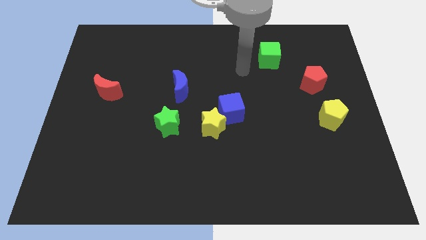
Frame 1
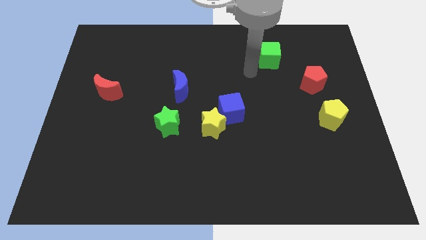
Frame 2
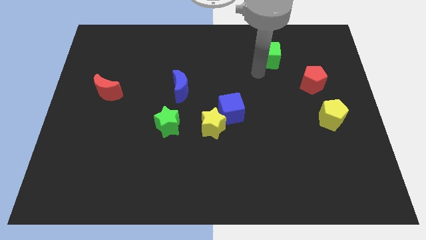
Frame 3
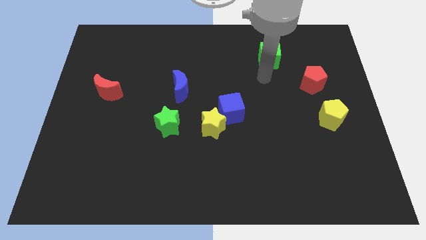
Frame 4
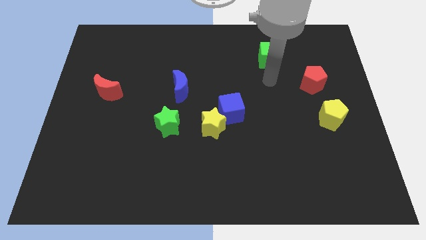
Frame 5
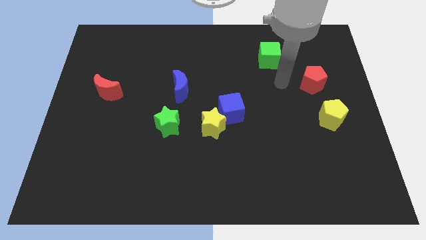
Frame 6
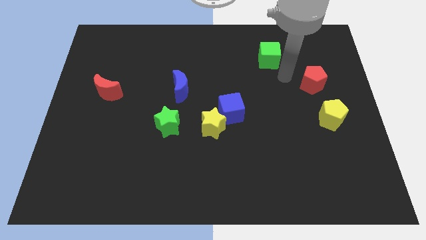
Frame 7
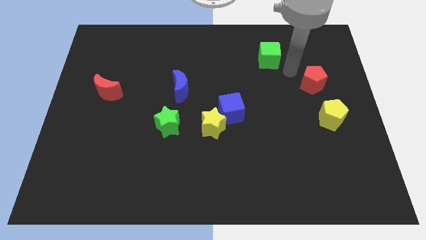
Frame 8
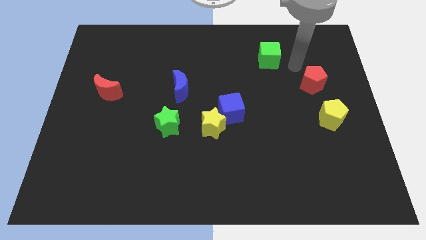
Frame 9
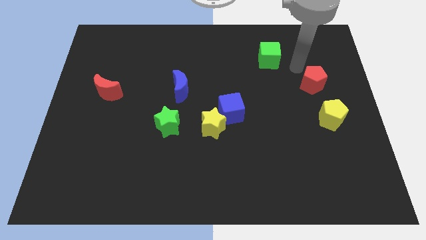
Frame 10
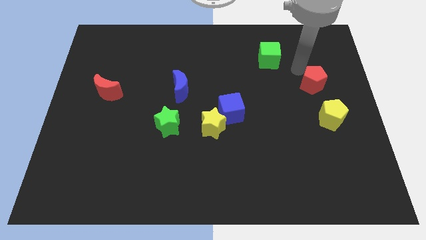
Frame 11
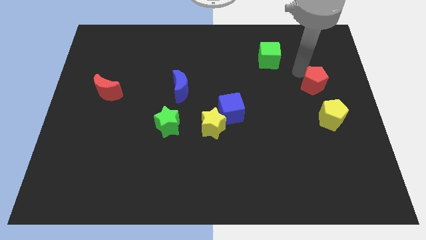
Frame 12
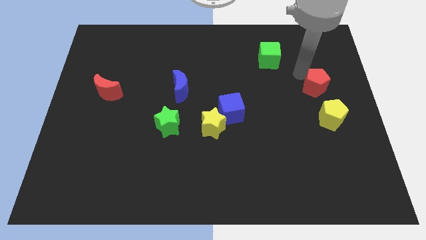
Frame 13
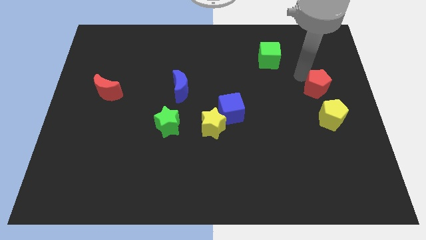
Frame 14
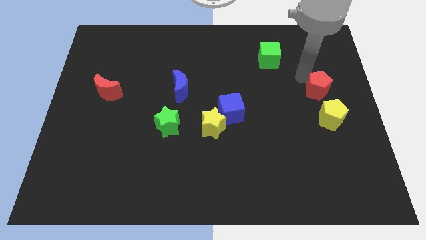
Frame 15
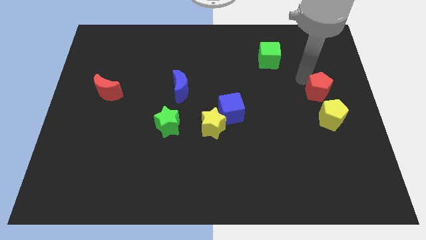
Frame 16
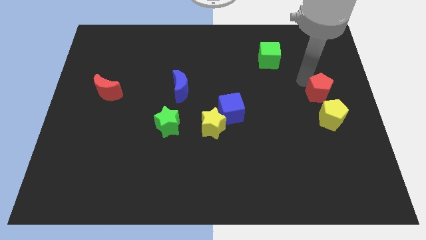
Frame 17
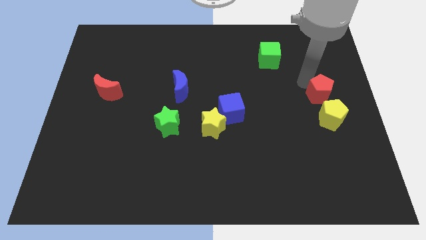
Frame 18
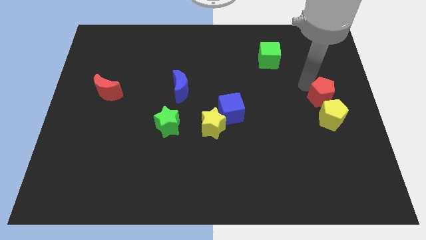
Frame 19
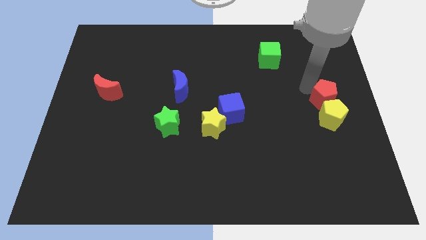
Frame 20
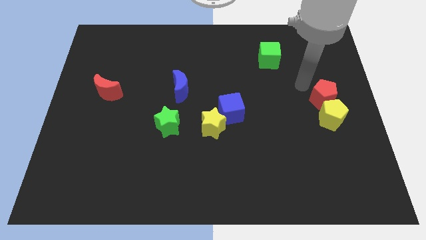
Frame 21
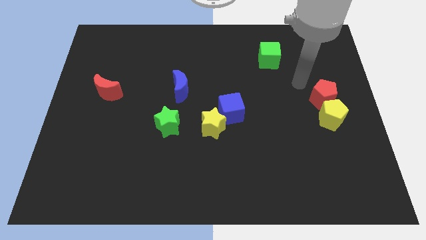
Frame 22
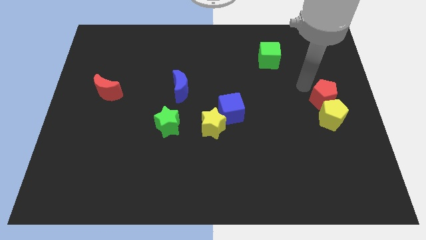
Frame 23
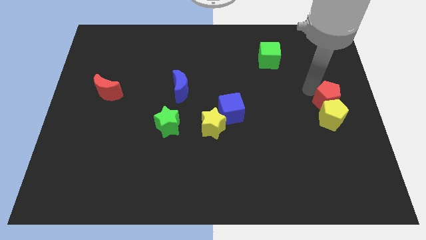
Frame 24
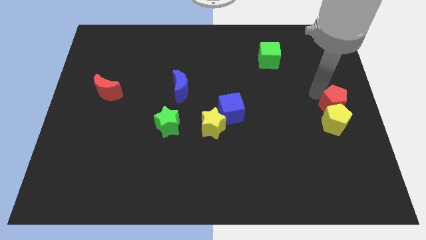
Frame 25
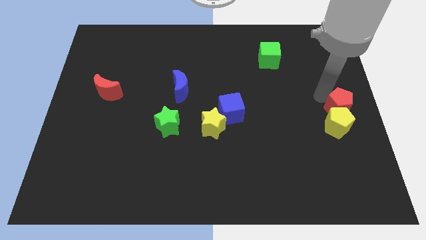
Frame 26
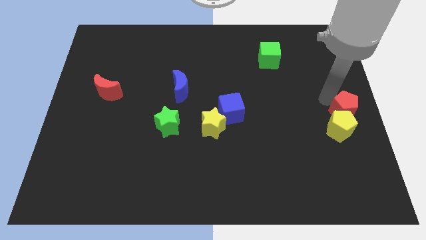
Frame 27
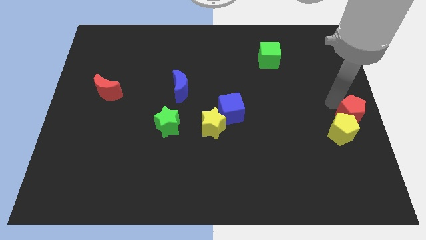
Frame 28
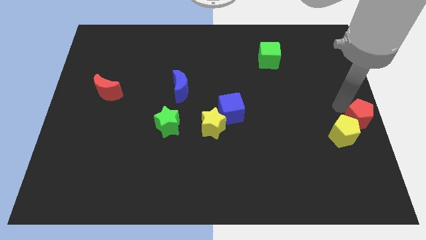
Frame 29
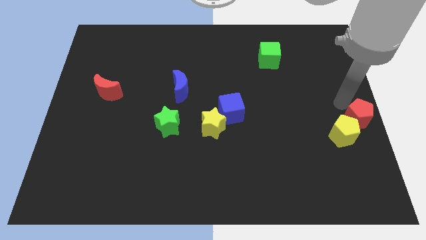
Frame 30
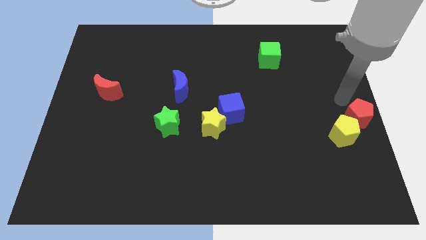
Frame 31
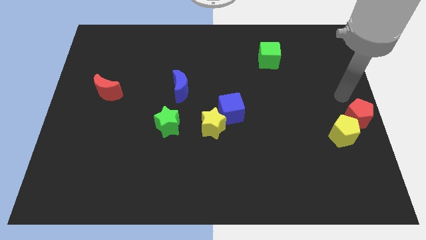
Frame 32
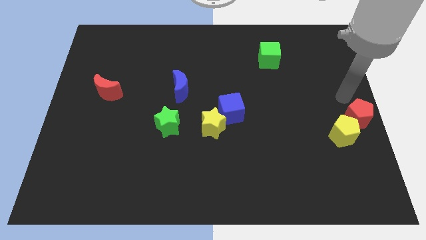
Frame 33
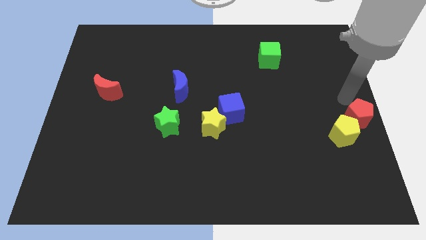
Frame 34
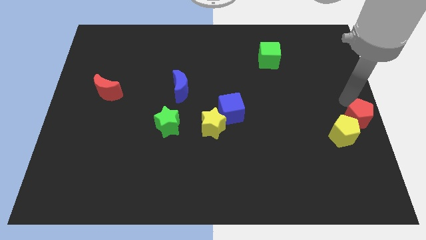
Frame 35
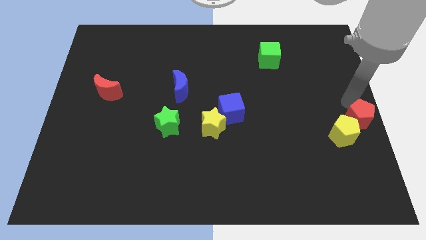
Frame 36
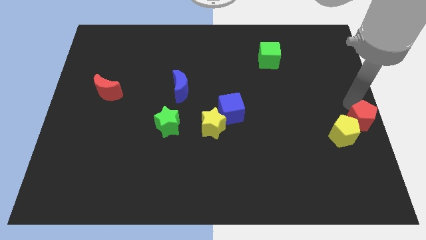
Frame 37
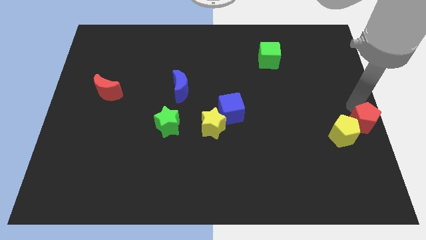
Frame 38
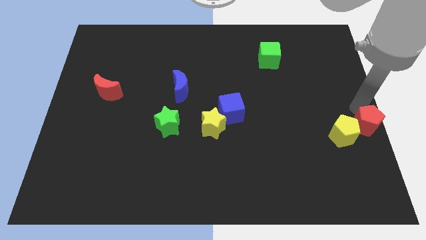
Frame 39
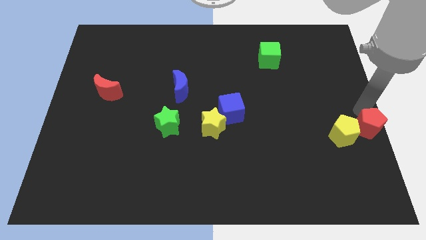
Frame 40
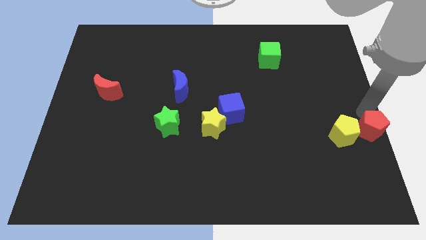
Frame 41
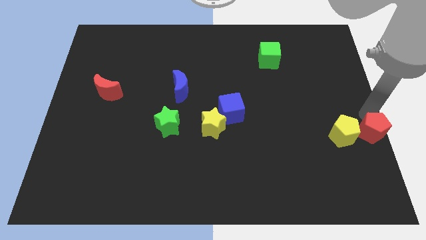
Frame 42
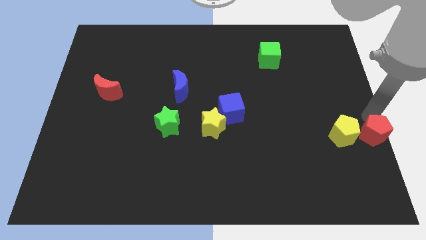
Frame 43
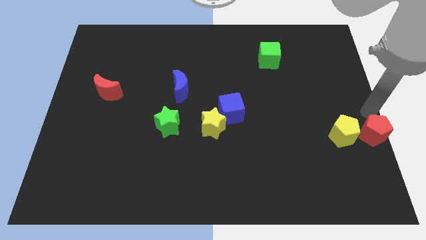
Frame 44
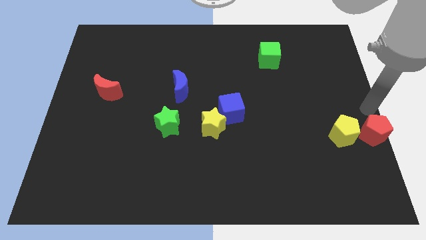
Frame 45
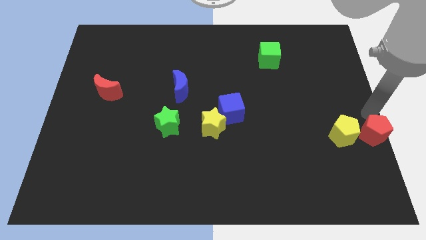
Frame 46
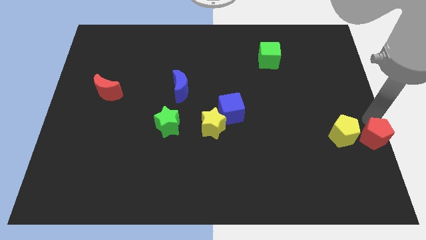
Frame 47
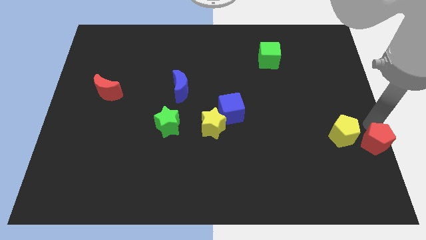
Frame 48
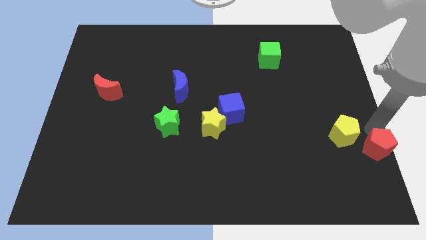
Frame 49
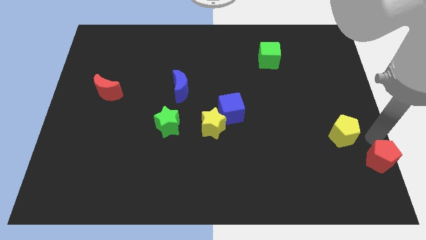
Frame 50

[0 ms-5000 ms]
put the red pentagon to the bottom right corner

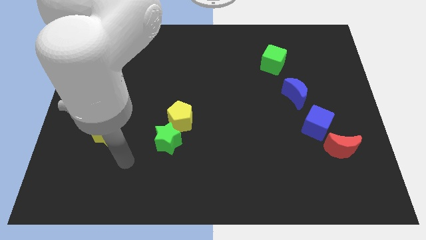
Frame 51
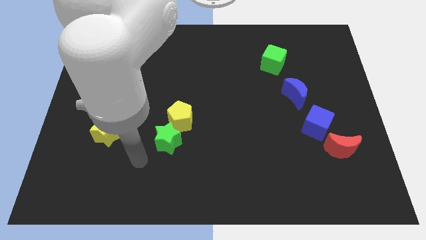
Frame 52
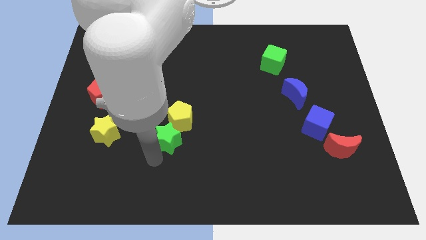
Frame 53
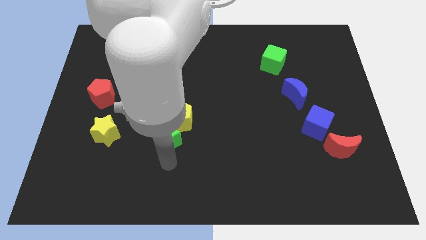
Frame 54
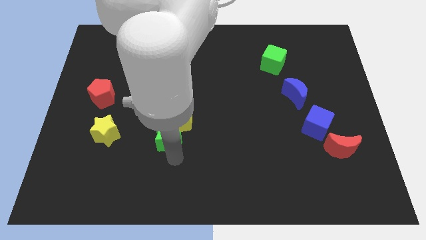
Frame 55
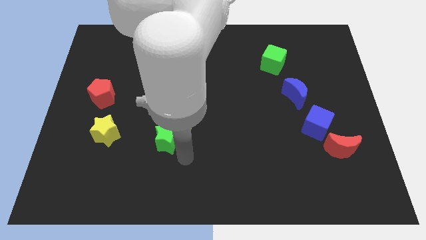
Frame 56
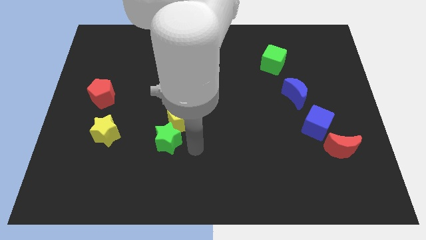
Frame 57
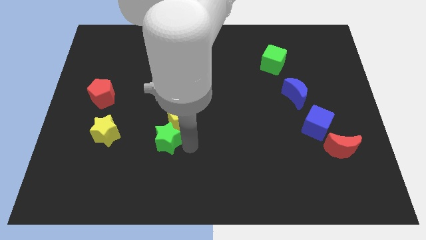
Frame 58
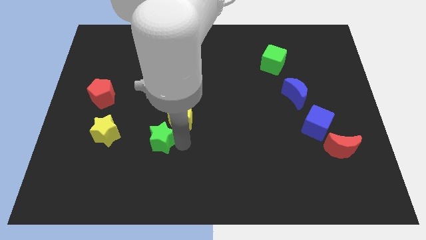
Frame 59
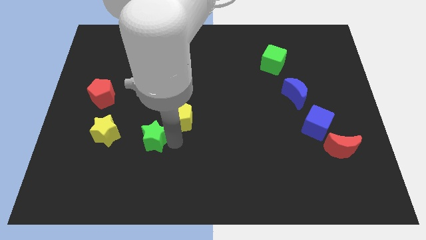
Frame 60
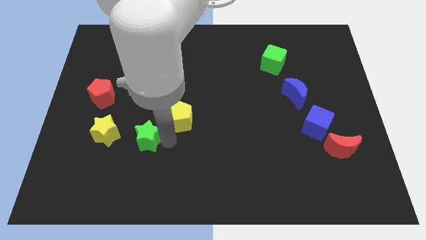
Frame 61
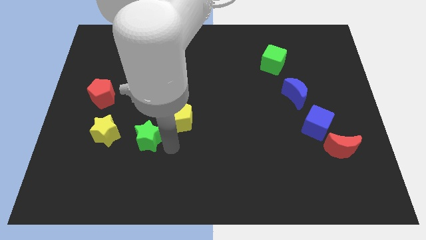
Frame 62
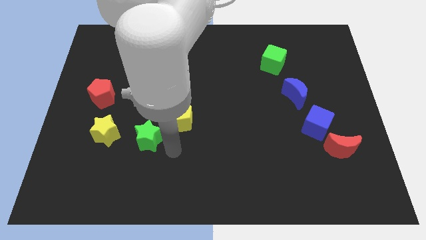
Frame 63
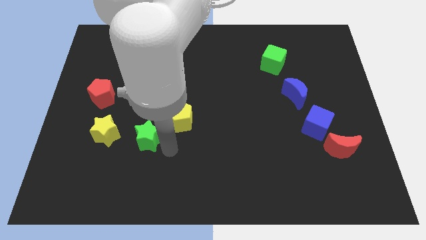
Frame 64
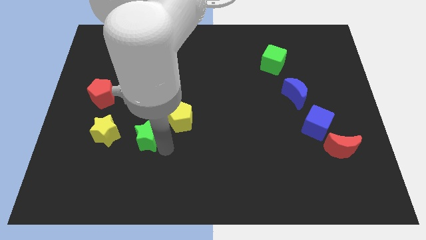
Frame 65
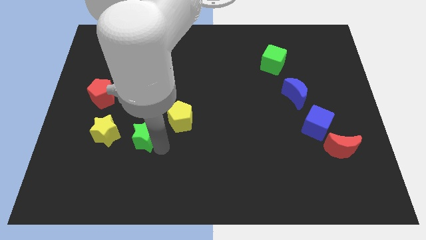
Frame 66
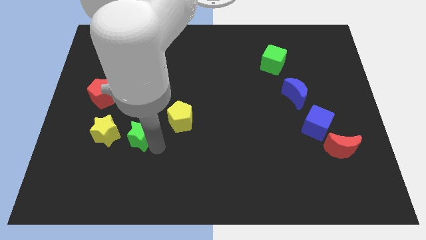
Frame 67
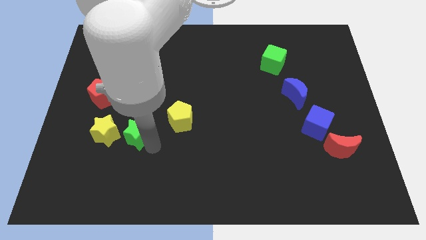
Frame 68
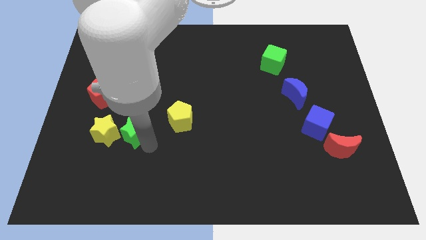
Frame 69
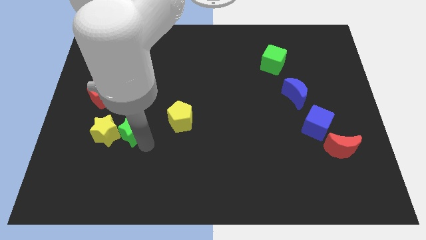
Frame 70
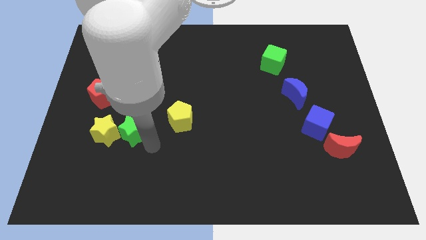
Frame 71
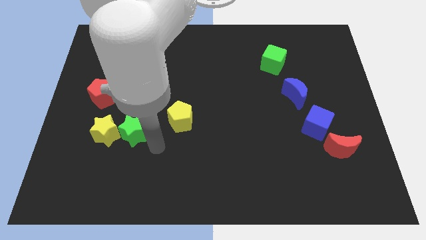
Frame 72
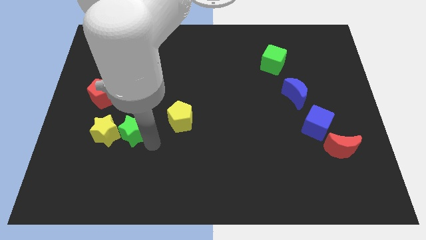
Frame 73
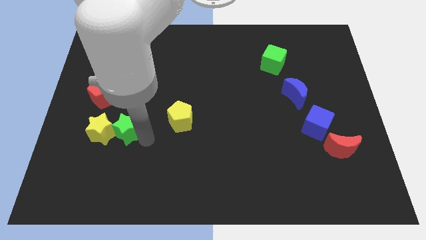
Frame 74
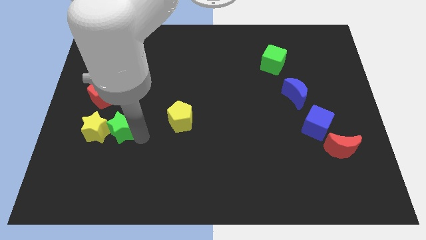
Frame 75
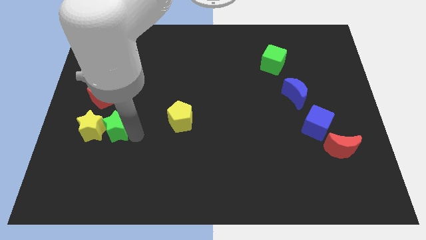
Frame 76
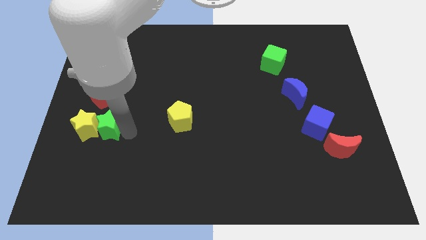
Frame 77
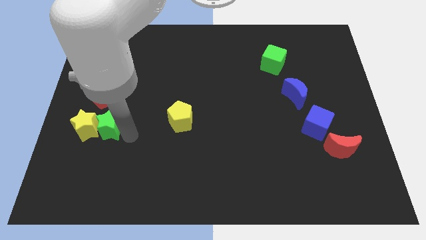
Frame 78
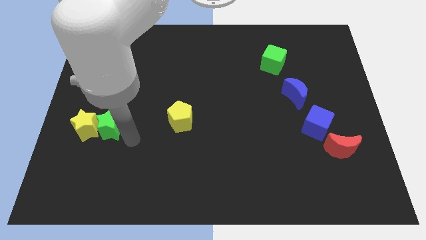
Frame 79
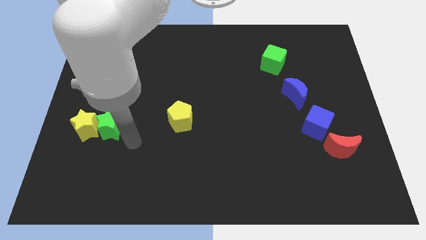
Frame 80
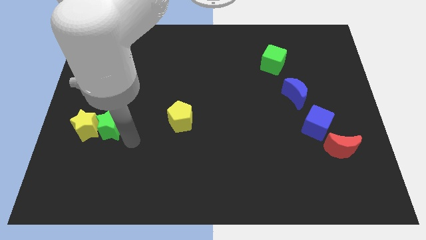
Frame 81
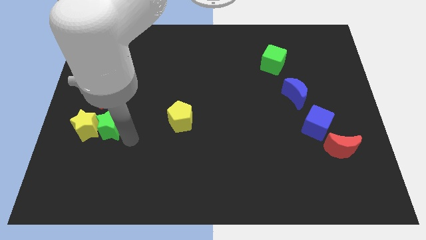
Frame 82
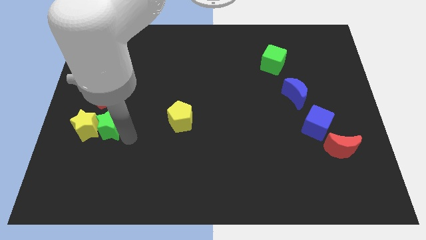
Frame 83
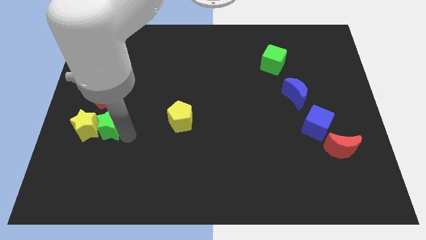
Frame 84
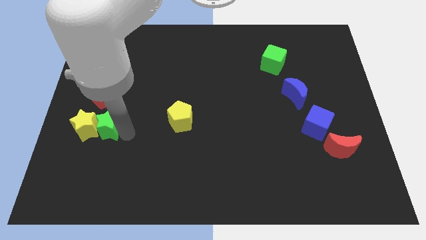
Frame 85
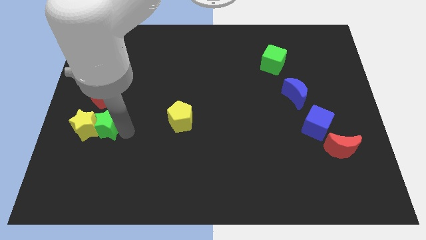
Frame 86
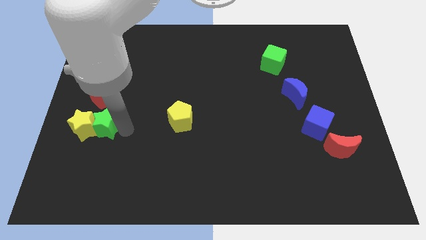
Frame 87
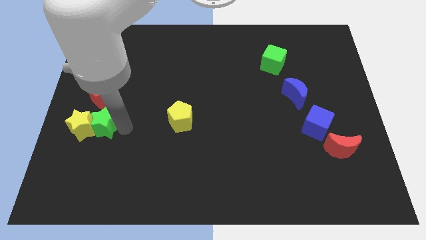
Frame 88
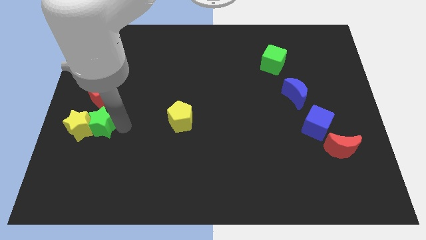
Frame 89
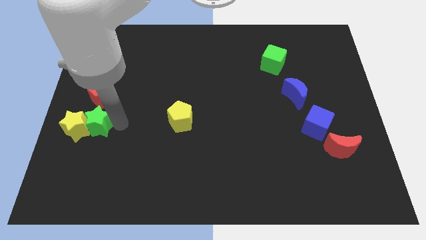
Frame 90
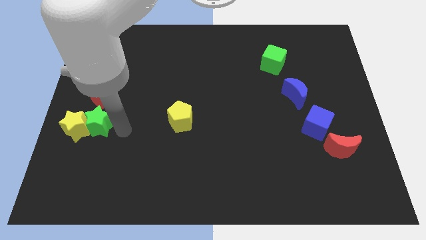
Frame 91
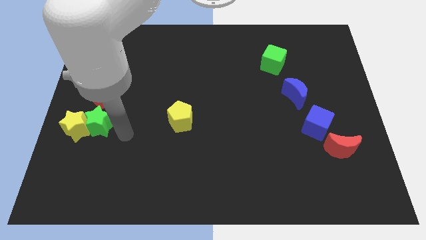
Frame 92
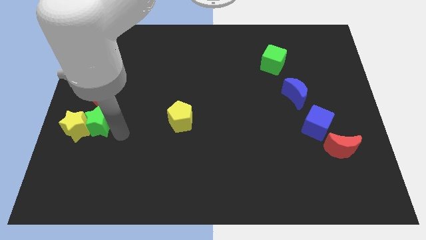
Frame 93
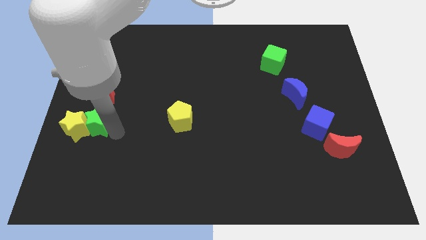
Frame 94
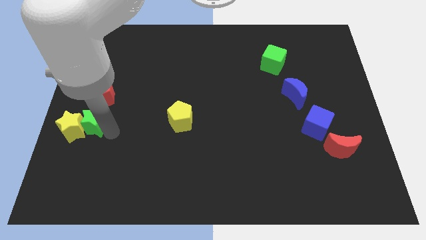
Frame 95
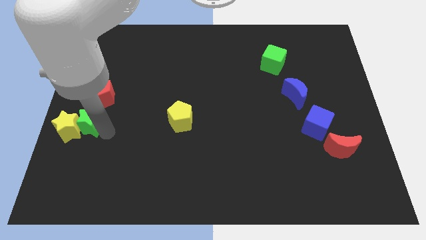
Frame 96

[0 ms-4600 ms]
put the green star to the left side of the board
